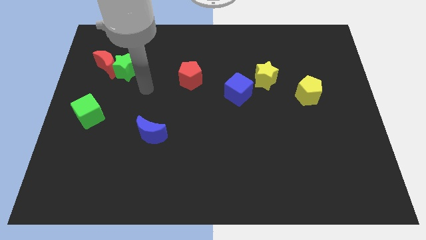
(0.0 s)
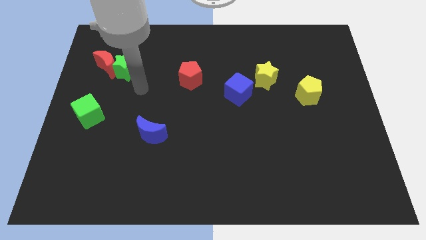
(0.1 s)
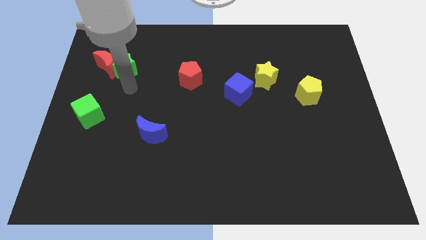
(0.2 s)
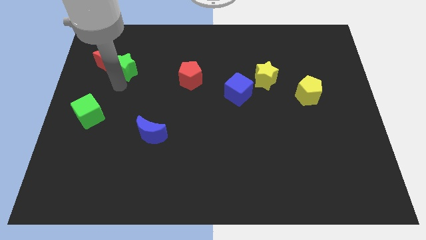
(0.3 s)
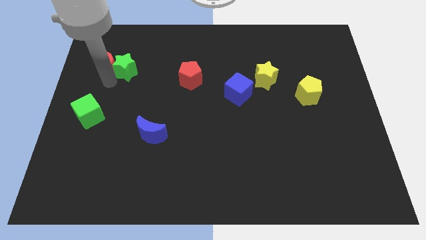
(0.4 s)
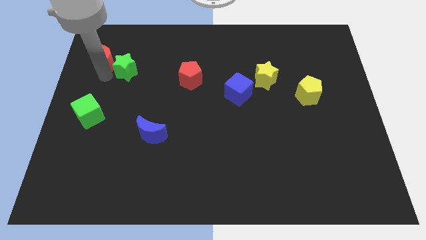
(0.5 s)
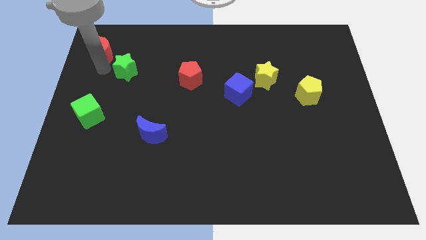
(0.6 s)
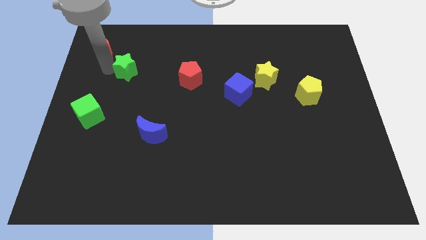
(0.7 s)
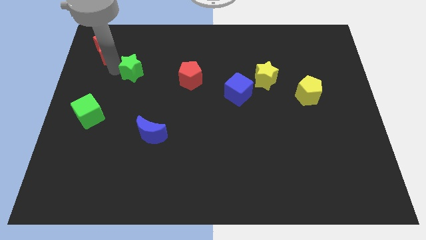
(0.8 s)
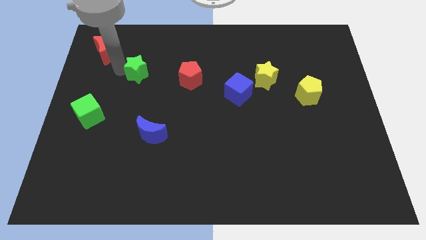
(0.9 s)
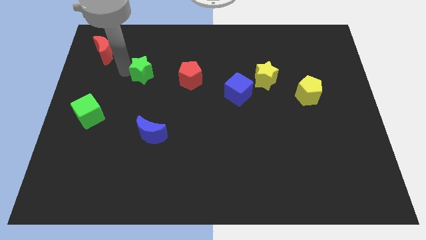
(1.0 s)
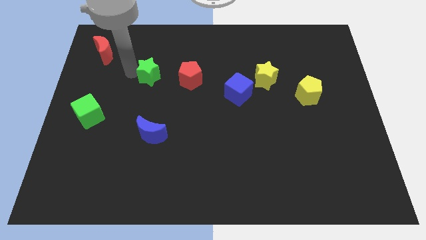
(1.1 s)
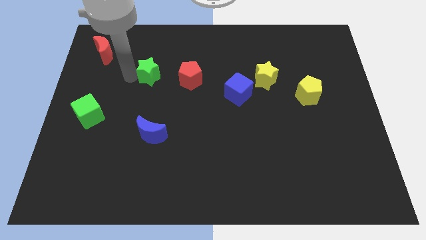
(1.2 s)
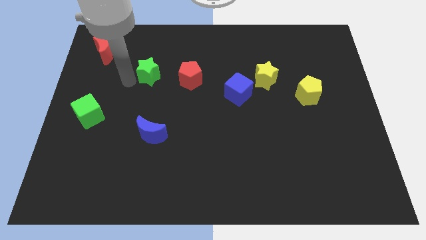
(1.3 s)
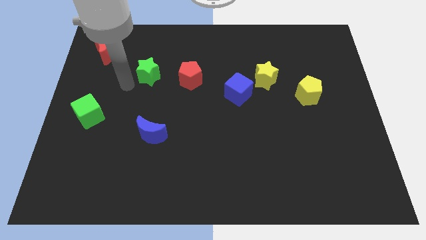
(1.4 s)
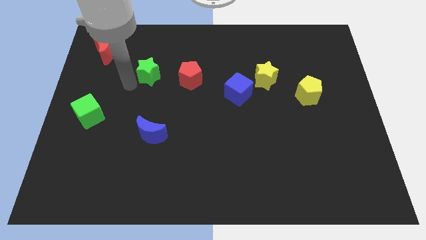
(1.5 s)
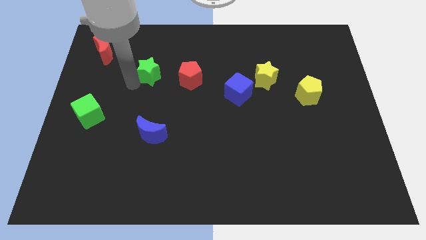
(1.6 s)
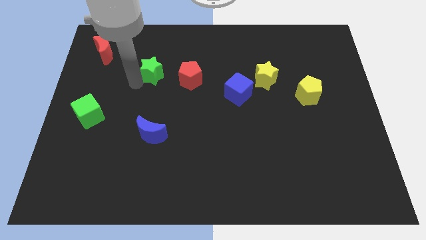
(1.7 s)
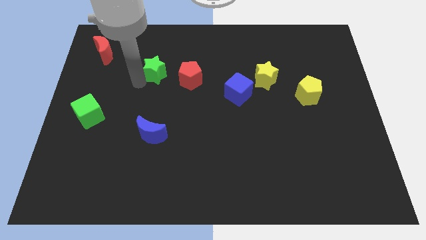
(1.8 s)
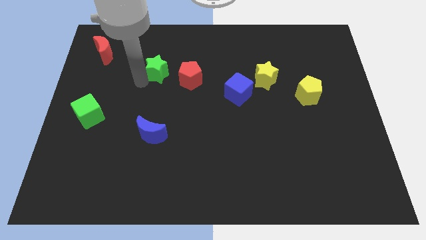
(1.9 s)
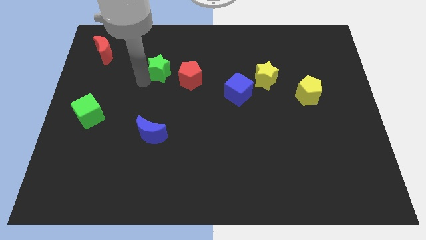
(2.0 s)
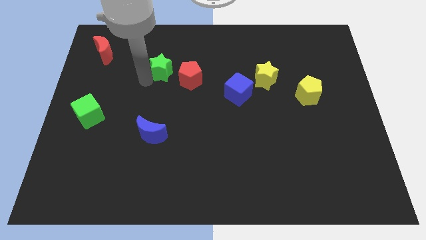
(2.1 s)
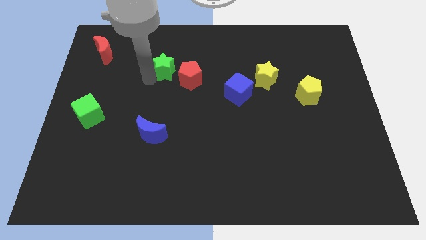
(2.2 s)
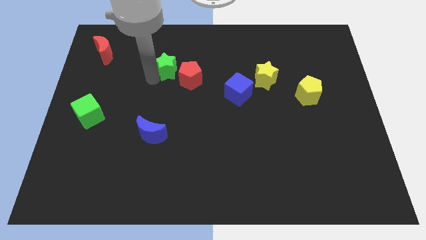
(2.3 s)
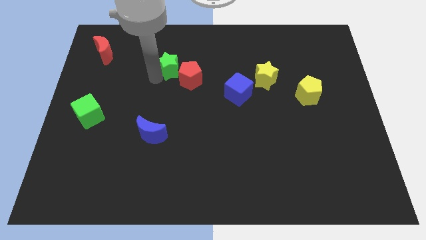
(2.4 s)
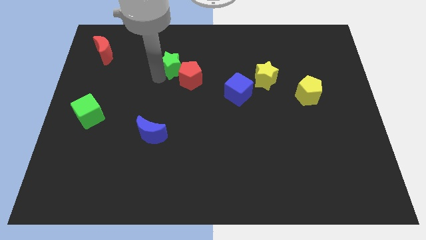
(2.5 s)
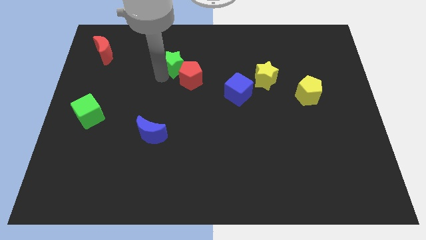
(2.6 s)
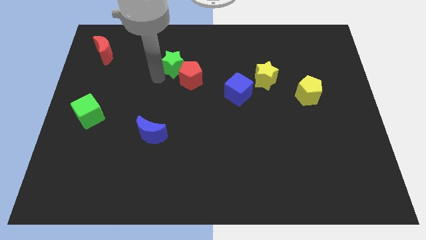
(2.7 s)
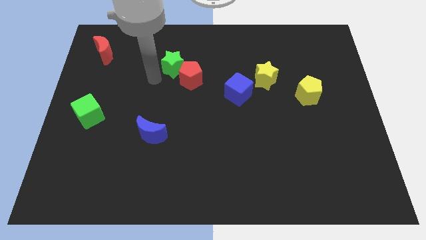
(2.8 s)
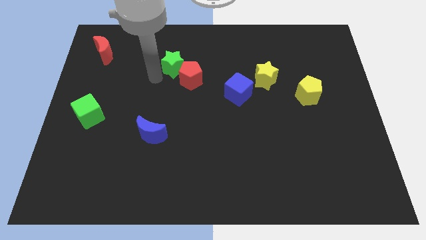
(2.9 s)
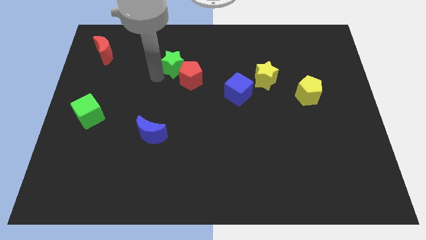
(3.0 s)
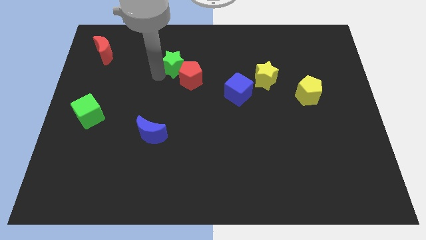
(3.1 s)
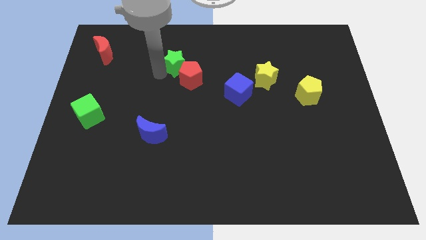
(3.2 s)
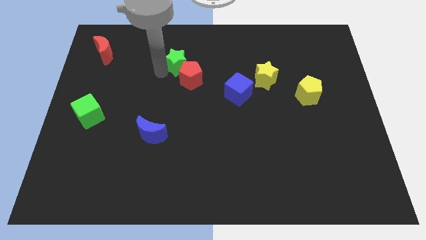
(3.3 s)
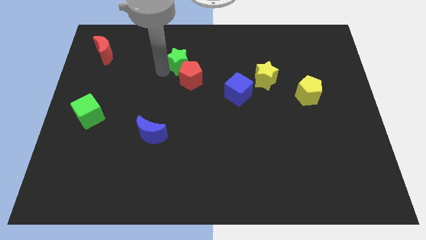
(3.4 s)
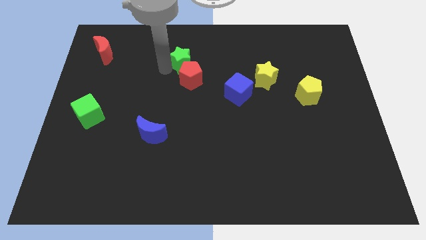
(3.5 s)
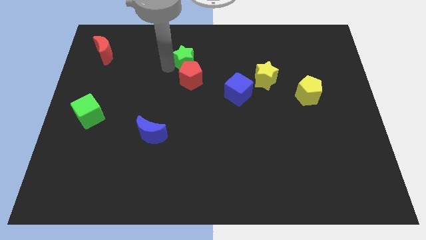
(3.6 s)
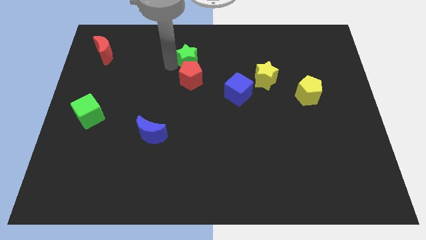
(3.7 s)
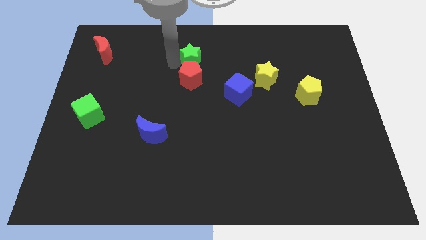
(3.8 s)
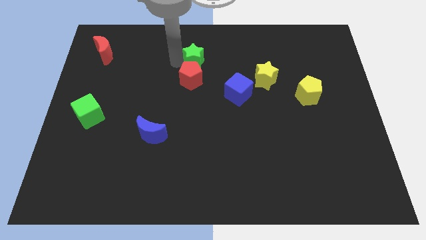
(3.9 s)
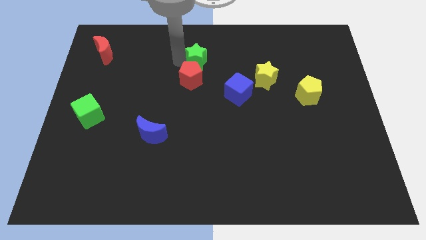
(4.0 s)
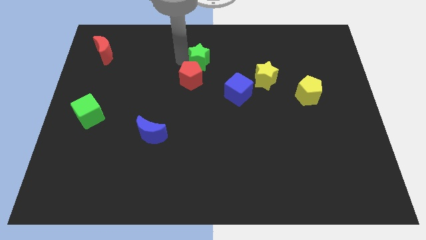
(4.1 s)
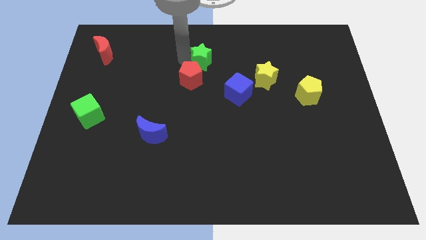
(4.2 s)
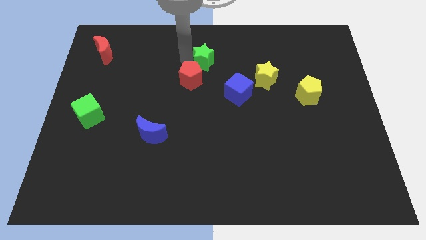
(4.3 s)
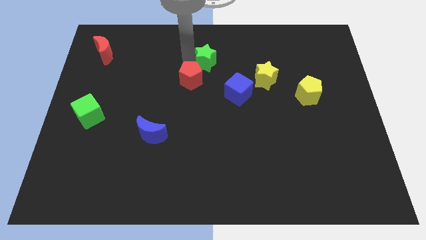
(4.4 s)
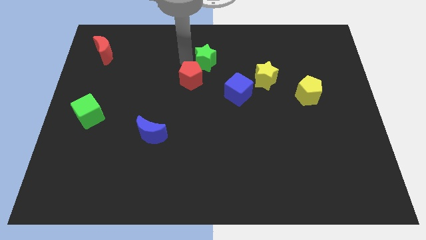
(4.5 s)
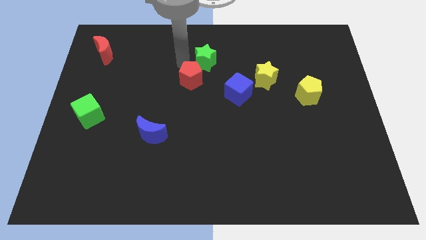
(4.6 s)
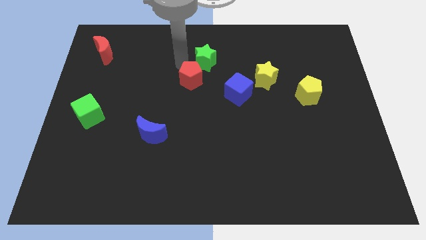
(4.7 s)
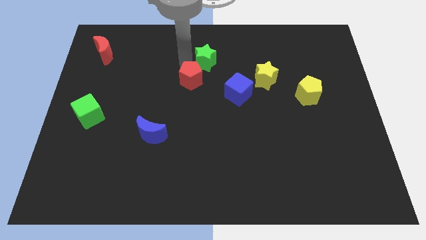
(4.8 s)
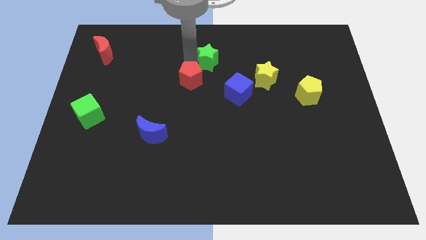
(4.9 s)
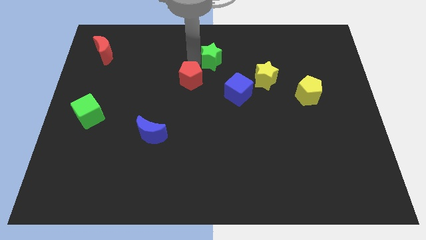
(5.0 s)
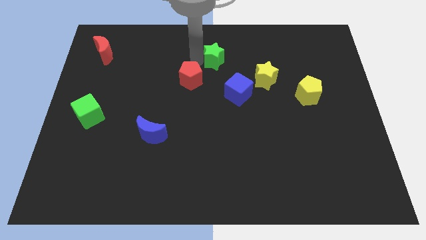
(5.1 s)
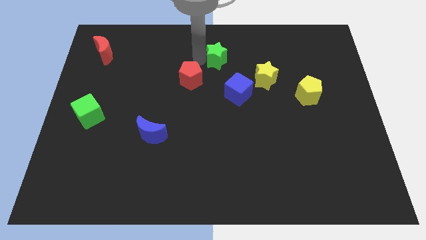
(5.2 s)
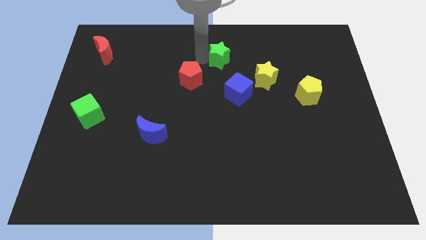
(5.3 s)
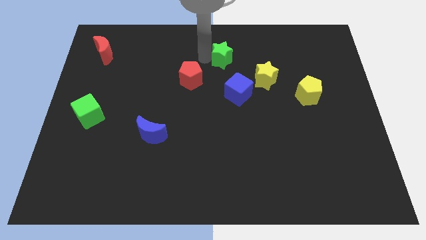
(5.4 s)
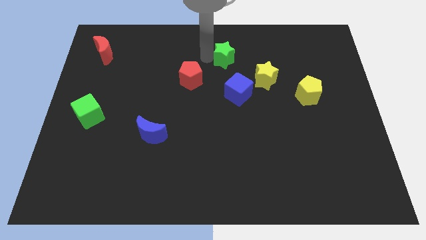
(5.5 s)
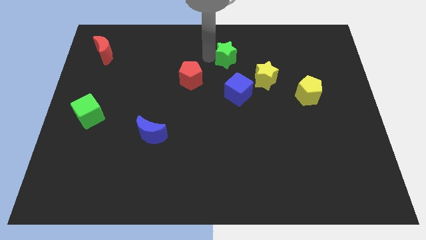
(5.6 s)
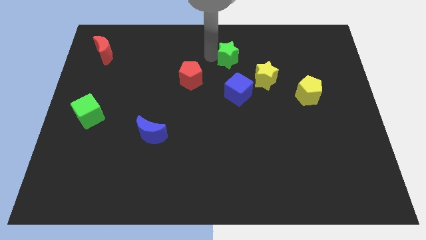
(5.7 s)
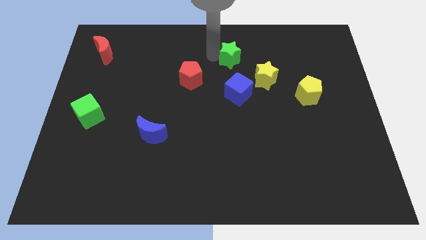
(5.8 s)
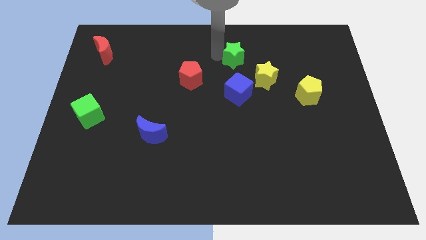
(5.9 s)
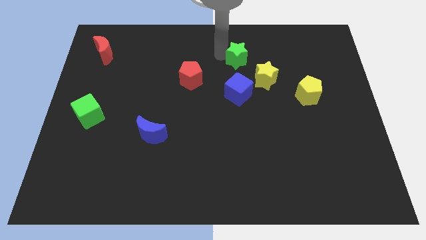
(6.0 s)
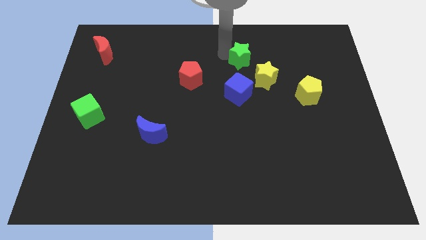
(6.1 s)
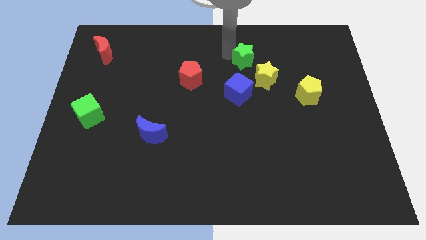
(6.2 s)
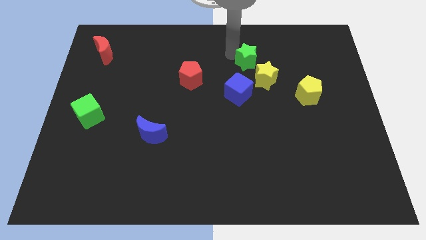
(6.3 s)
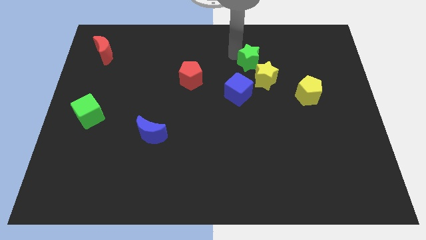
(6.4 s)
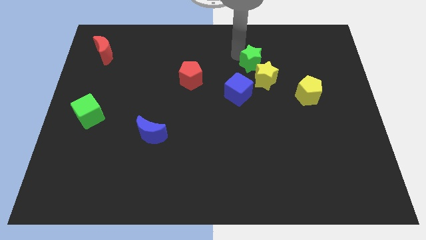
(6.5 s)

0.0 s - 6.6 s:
move the green star towards the yellow star

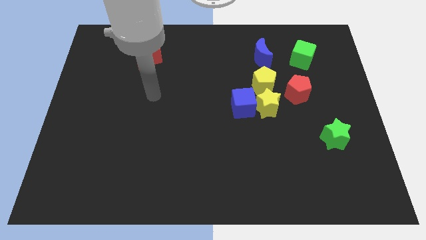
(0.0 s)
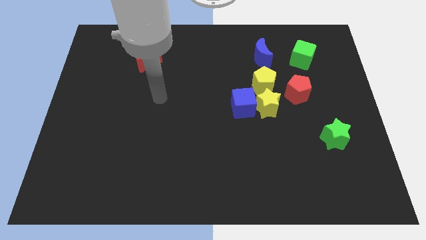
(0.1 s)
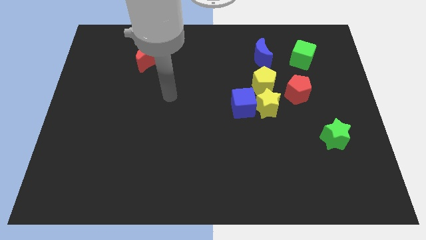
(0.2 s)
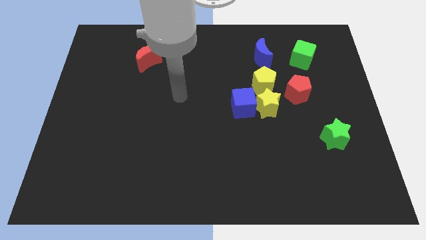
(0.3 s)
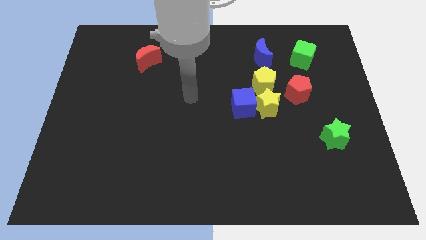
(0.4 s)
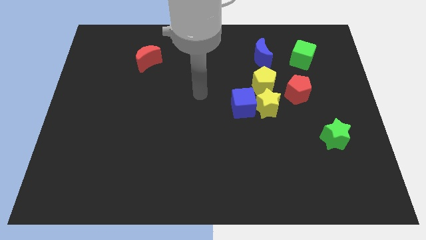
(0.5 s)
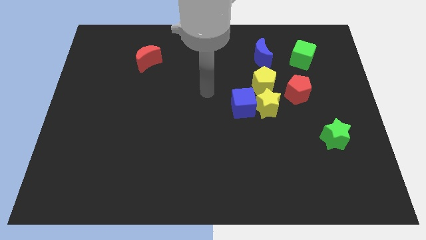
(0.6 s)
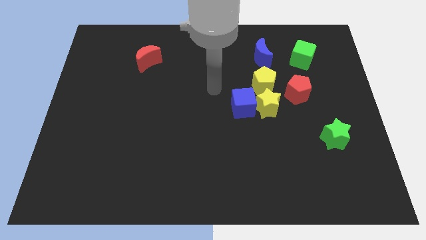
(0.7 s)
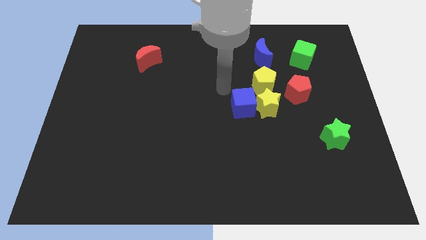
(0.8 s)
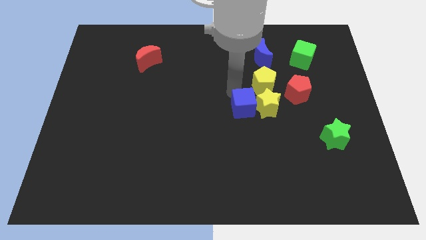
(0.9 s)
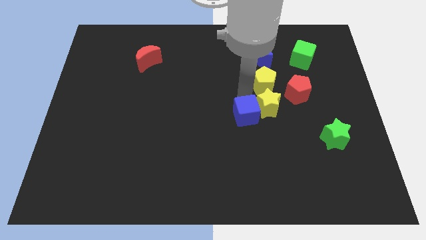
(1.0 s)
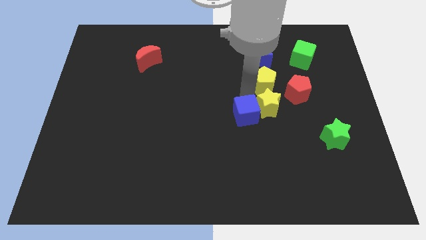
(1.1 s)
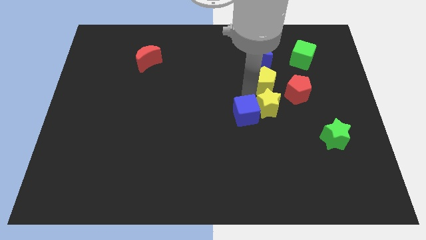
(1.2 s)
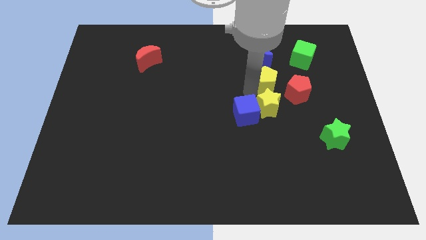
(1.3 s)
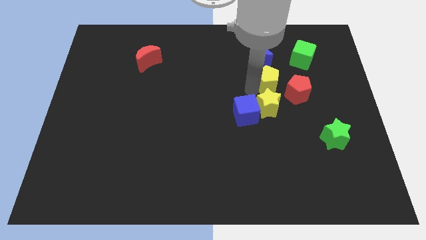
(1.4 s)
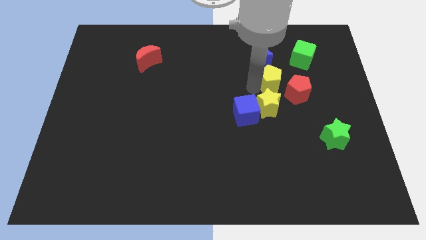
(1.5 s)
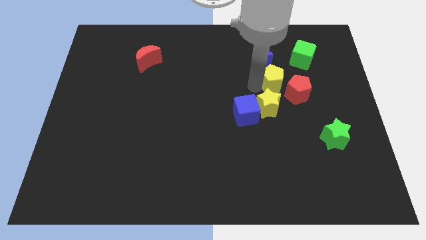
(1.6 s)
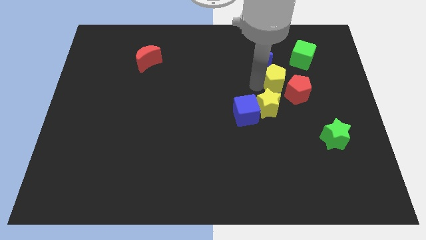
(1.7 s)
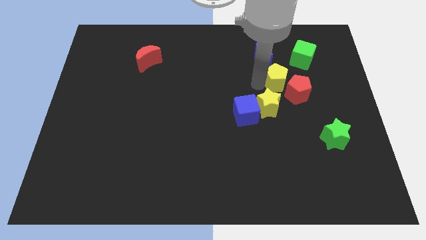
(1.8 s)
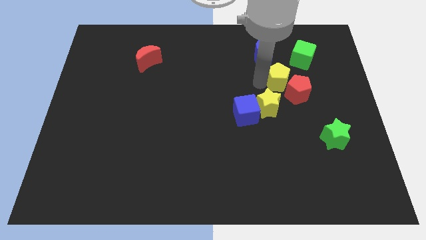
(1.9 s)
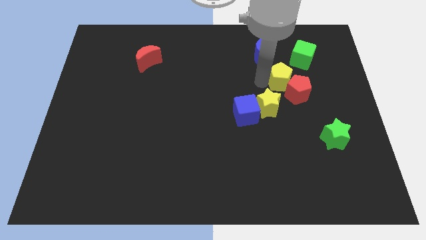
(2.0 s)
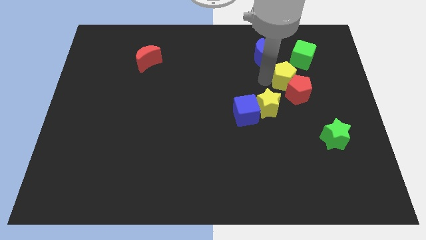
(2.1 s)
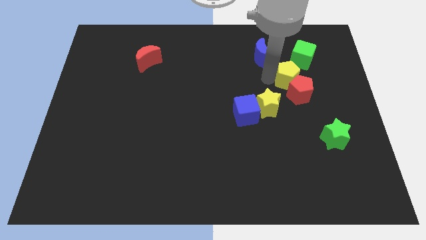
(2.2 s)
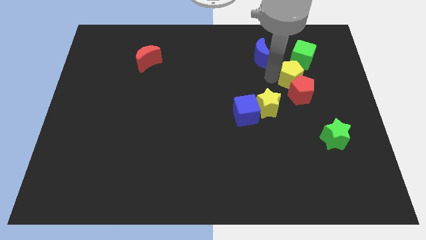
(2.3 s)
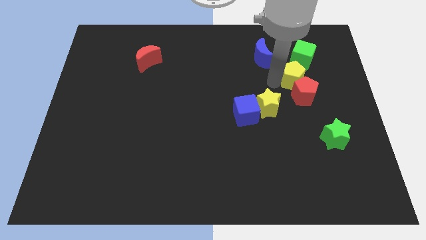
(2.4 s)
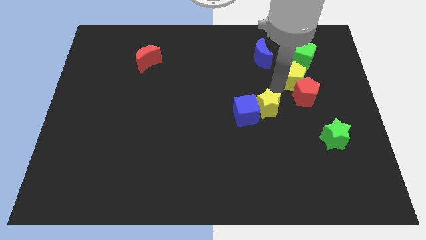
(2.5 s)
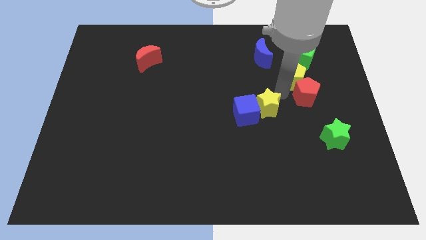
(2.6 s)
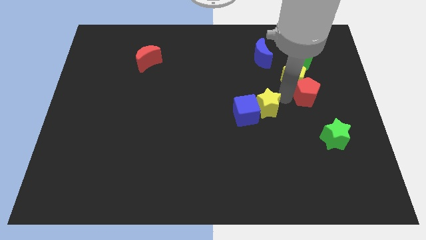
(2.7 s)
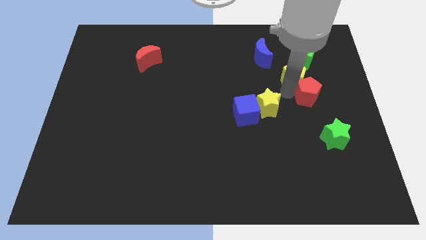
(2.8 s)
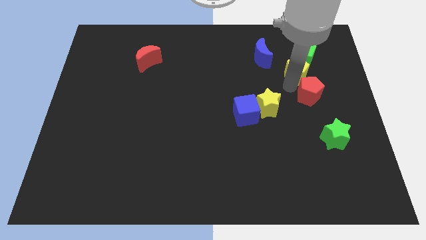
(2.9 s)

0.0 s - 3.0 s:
put the yellow pentagon close to the green cube
